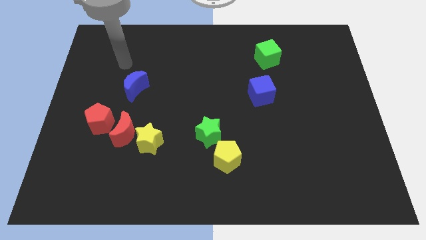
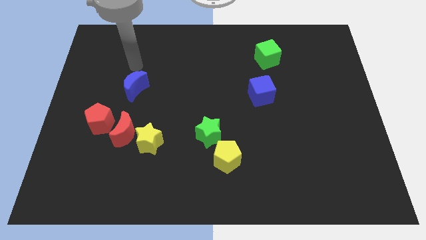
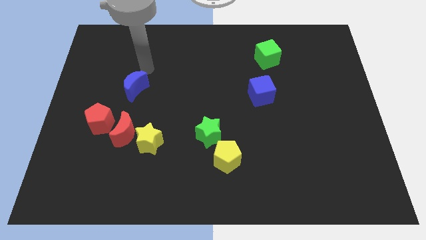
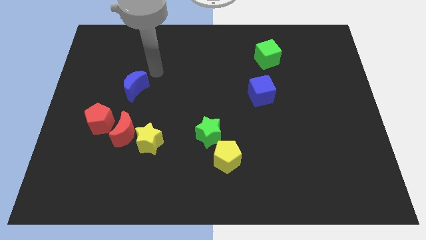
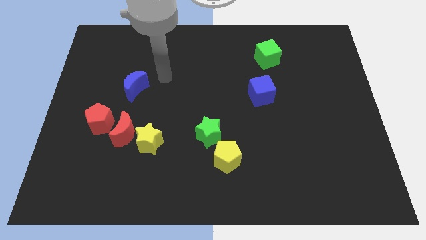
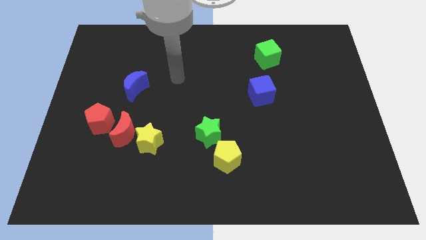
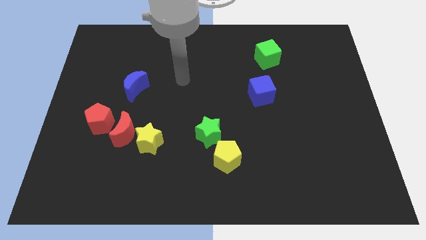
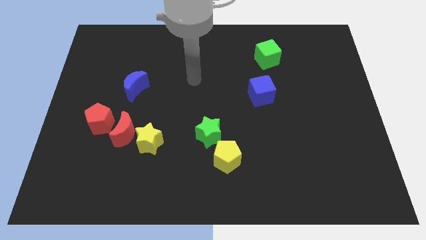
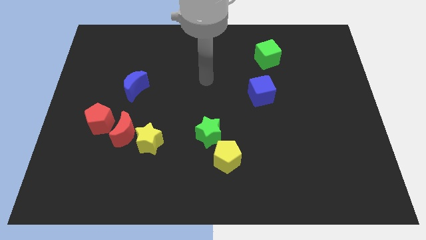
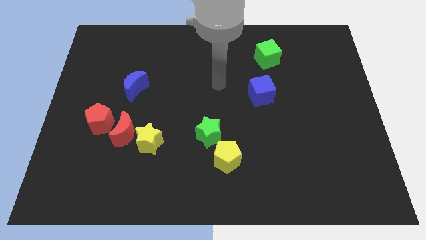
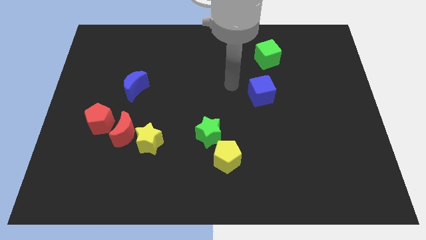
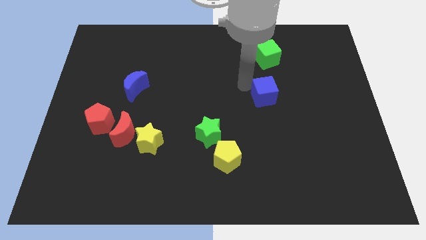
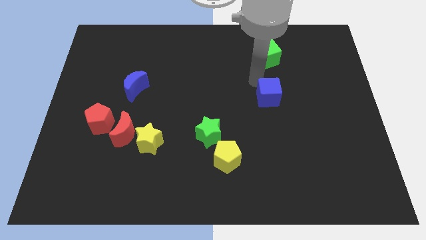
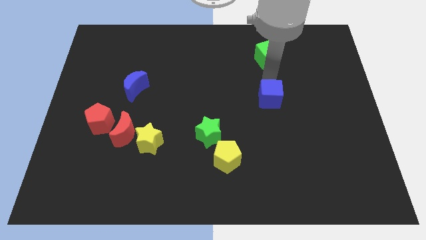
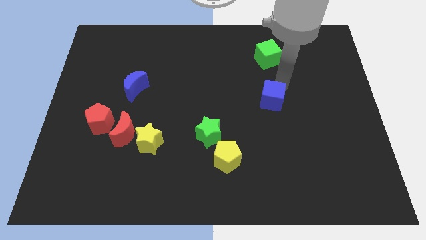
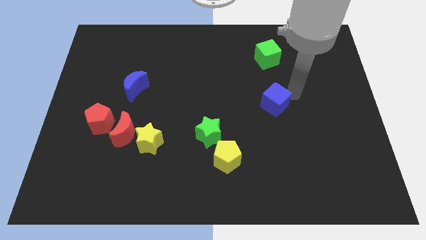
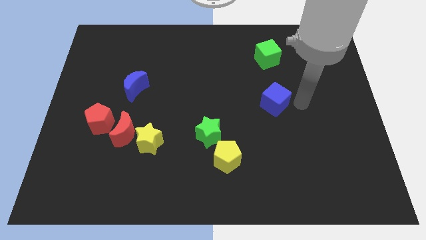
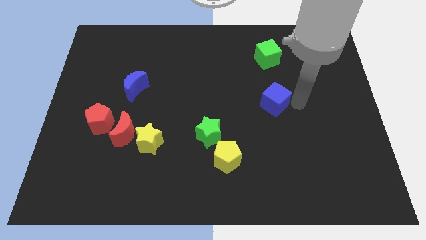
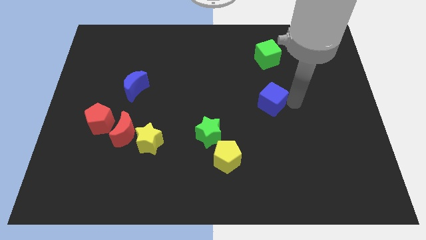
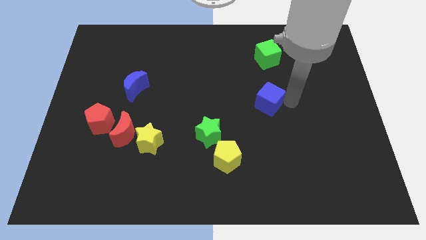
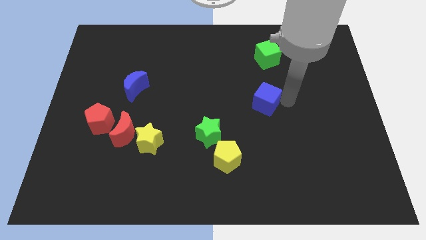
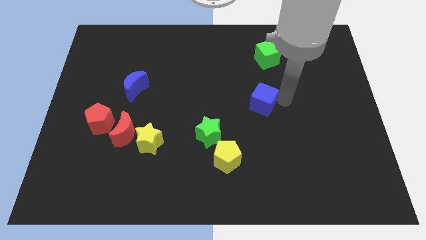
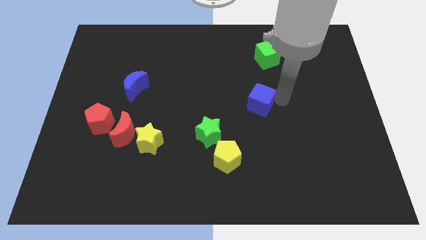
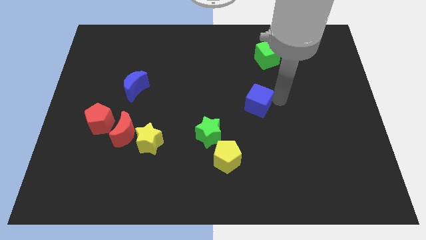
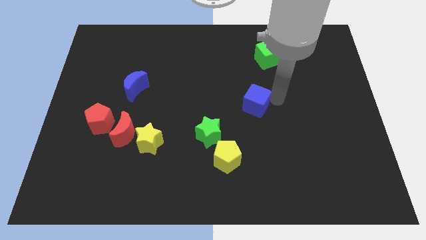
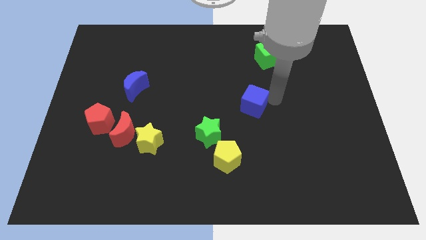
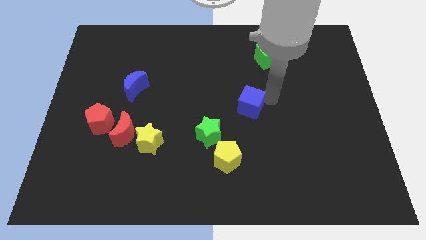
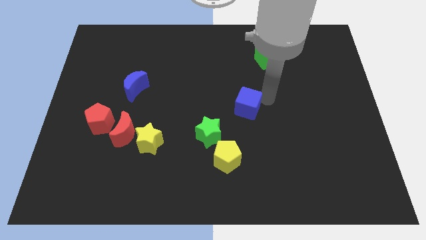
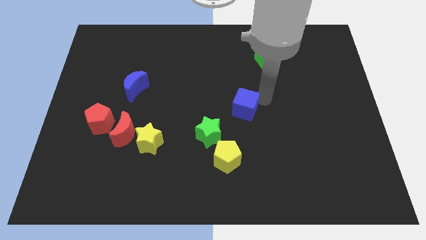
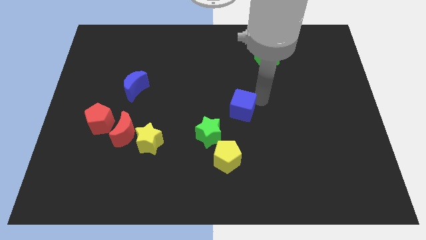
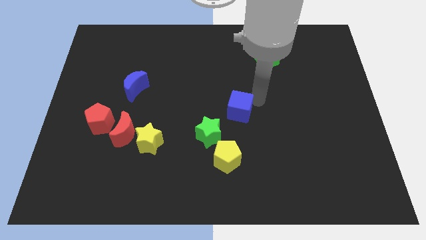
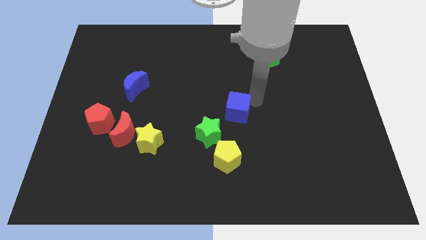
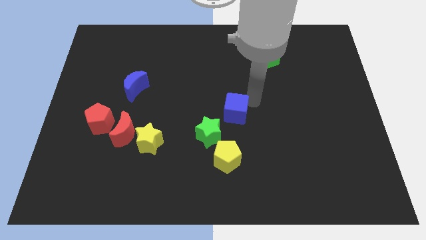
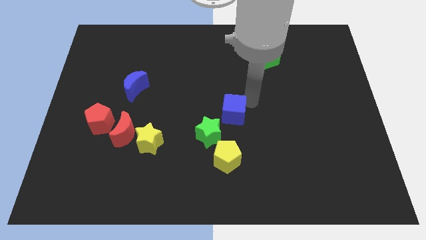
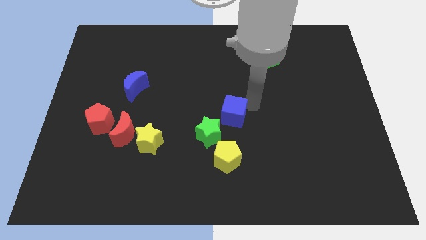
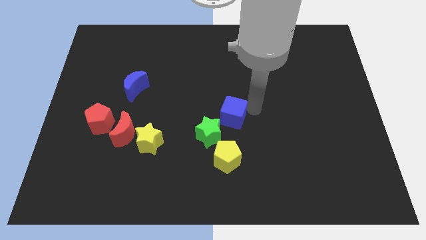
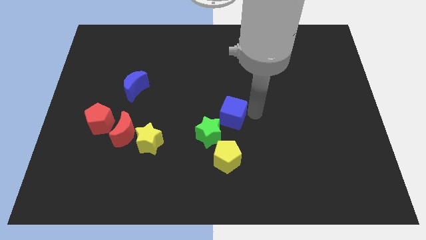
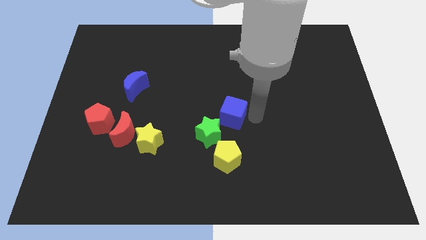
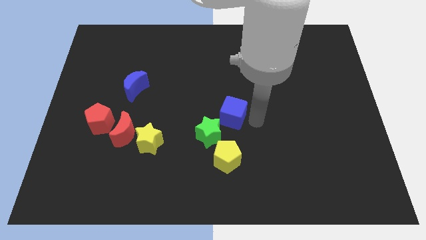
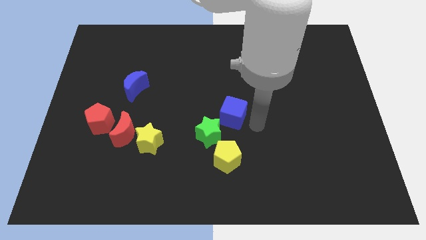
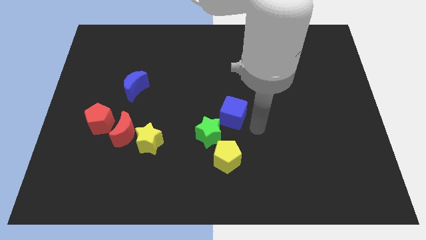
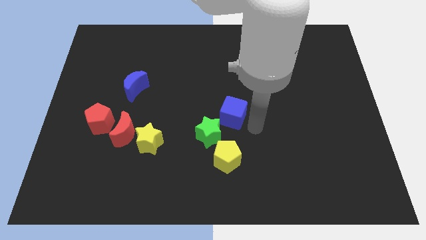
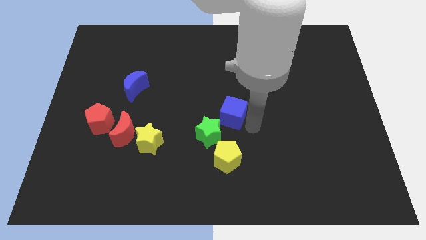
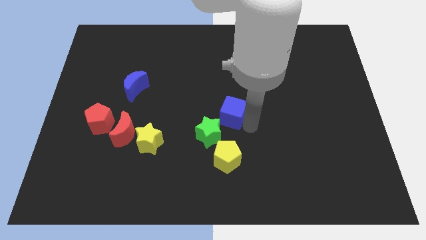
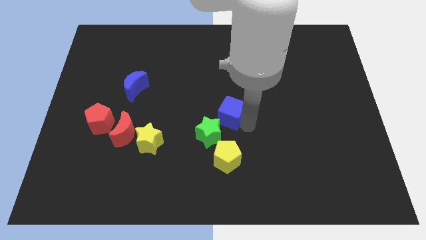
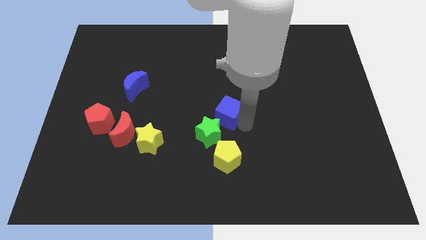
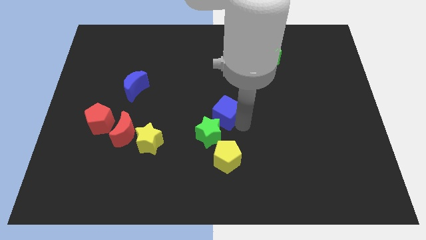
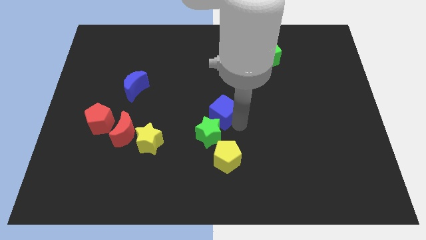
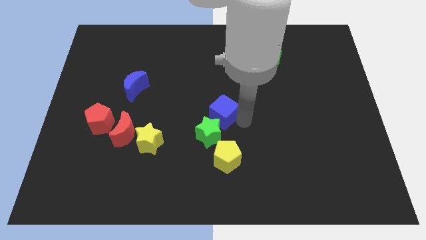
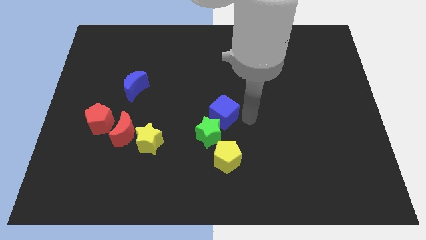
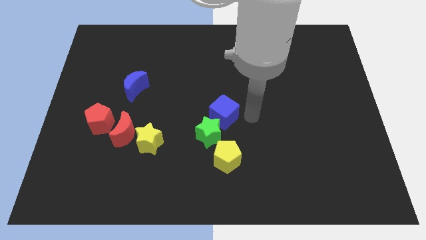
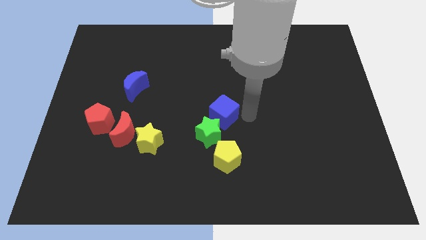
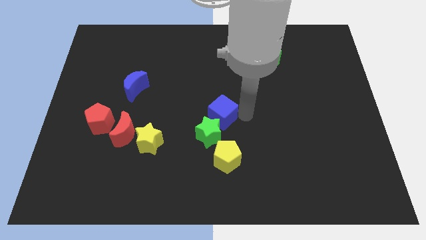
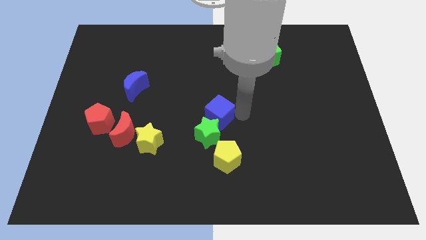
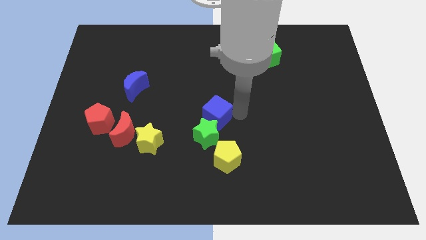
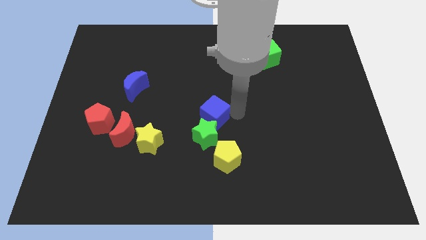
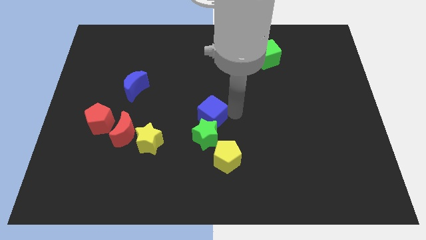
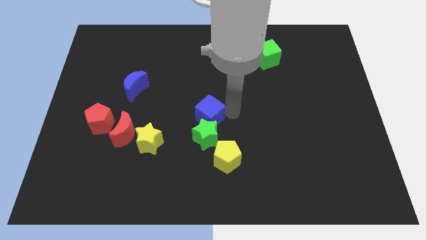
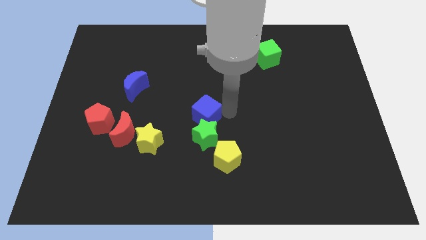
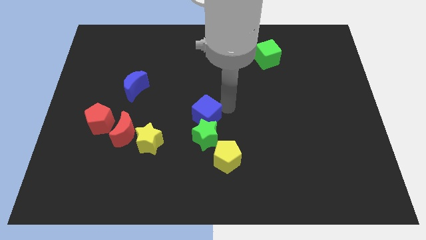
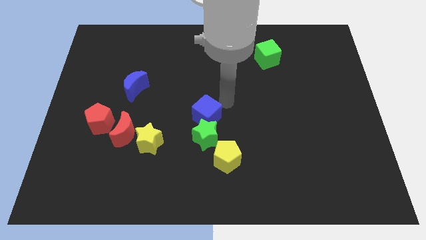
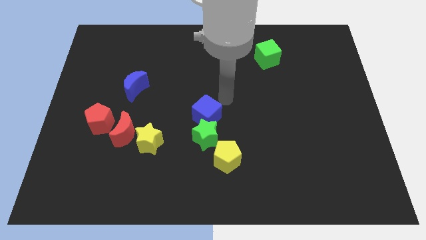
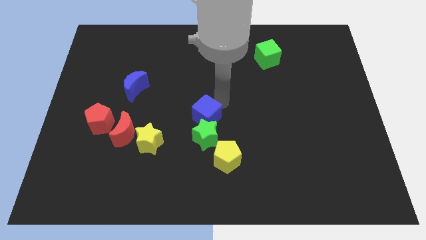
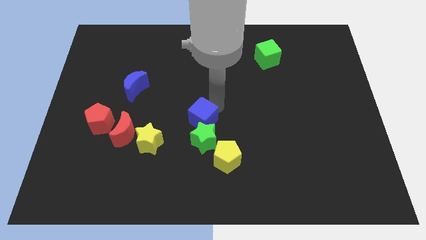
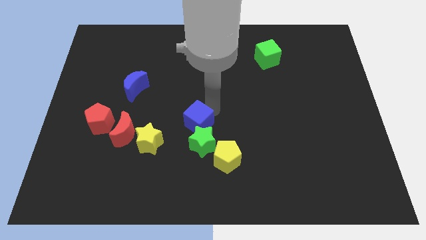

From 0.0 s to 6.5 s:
push the blue cube to the top left side of the yellow pentagon
